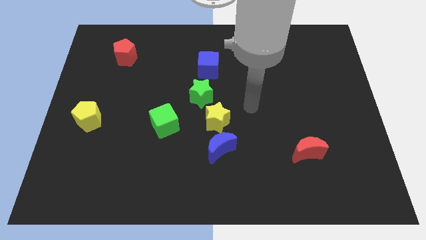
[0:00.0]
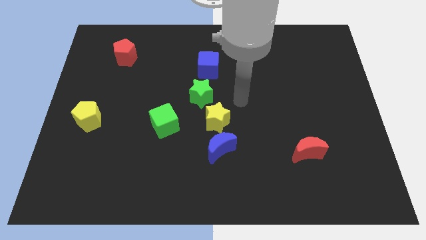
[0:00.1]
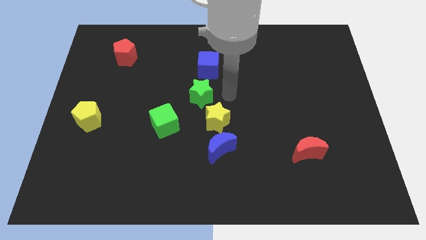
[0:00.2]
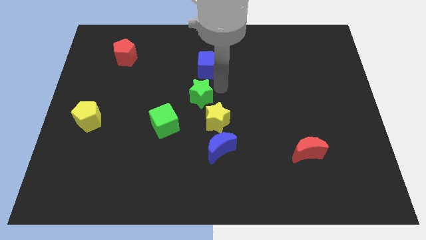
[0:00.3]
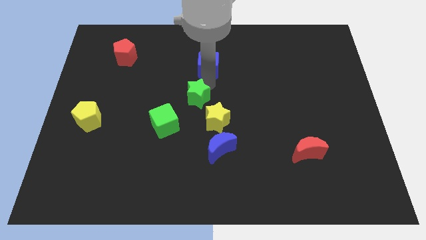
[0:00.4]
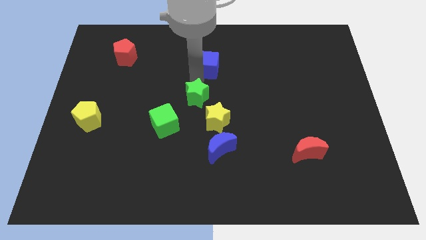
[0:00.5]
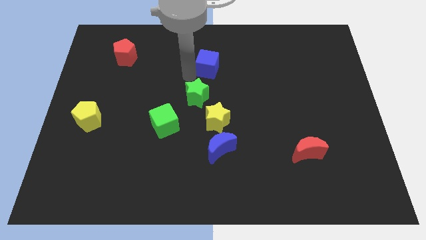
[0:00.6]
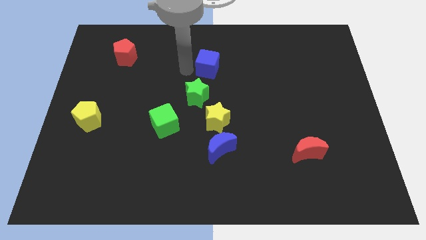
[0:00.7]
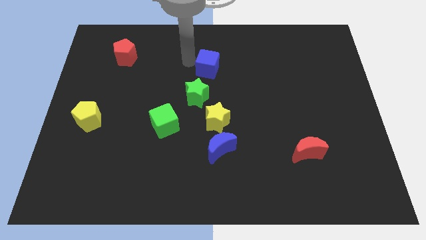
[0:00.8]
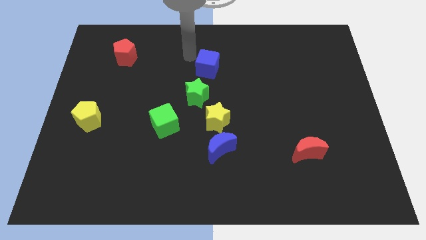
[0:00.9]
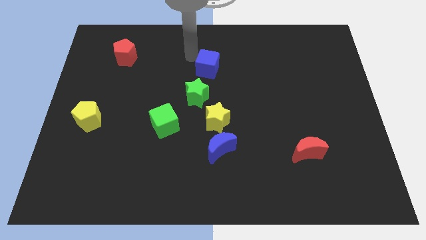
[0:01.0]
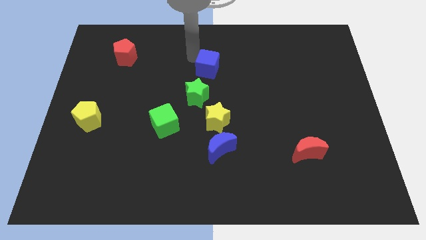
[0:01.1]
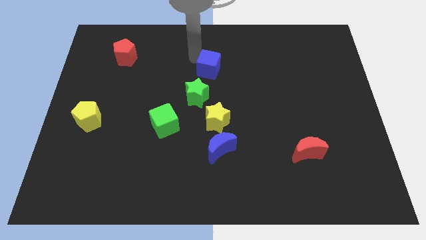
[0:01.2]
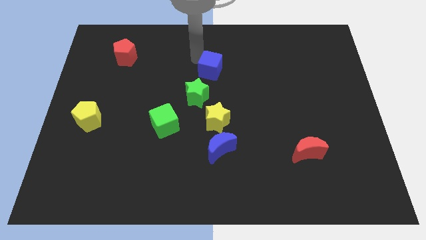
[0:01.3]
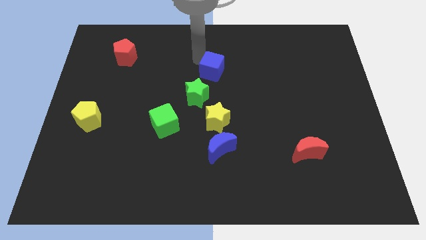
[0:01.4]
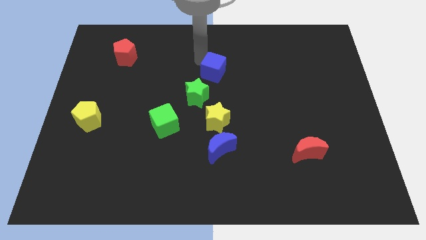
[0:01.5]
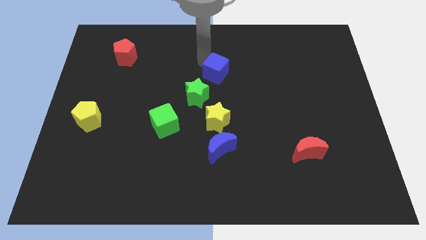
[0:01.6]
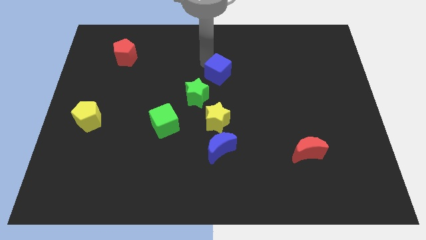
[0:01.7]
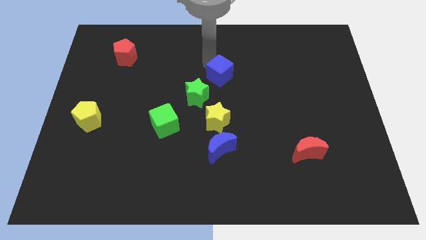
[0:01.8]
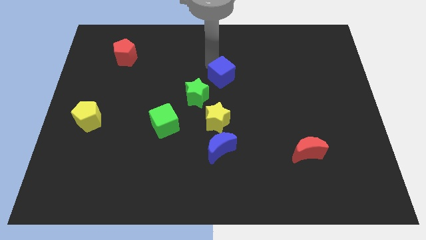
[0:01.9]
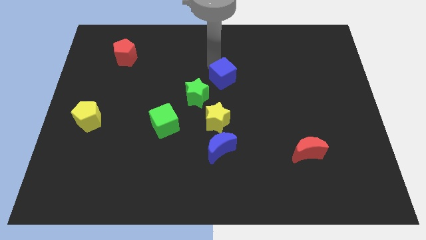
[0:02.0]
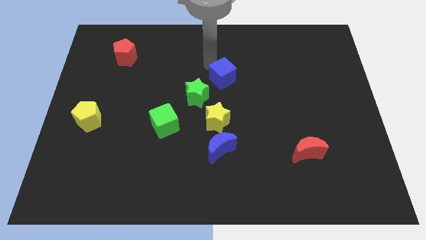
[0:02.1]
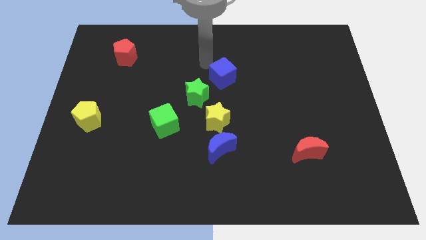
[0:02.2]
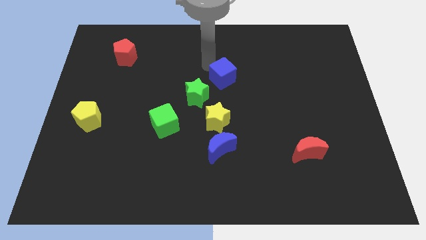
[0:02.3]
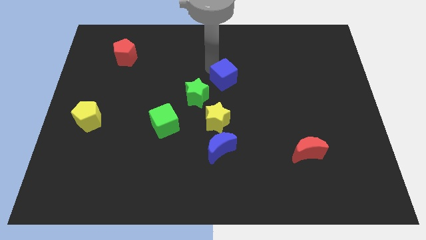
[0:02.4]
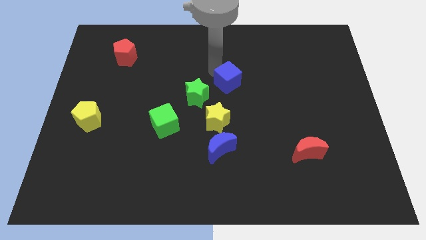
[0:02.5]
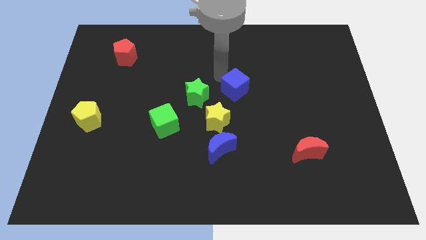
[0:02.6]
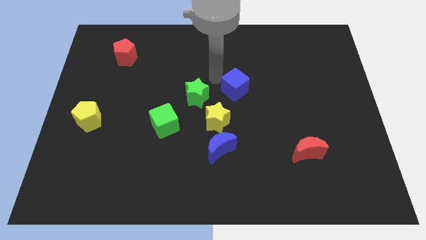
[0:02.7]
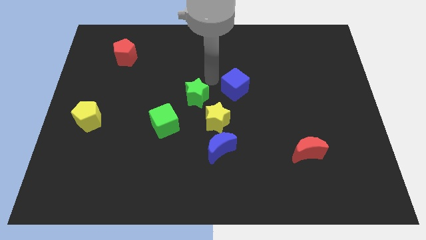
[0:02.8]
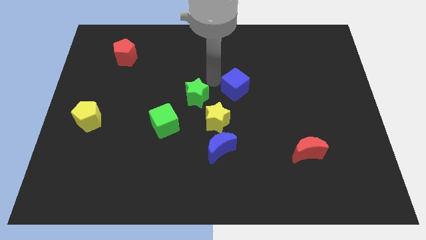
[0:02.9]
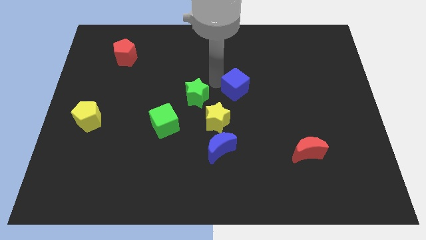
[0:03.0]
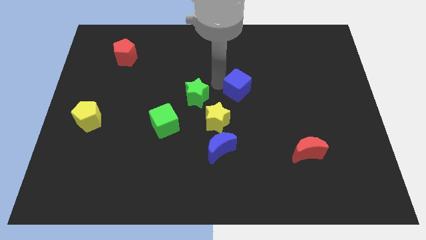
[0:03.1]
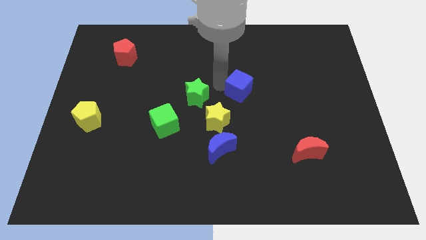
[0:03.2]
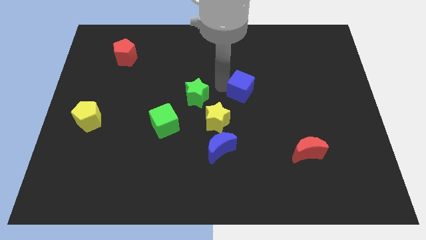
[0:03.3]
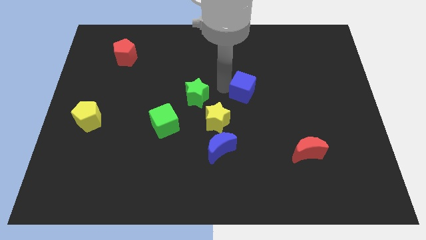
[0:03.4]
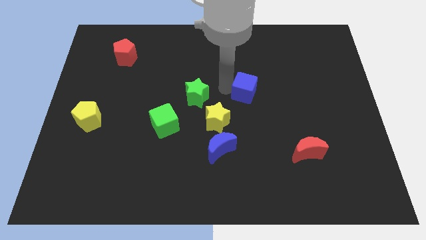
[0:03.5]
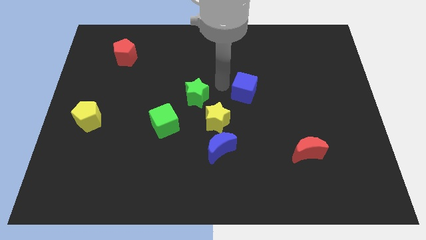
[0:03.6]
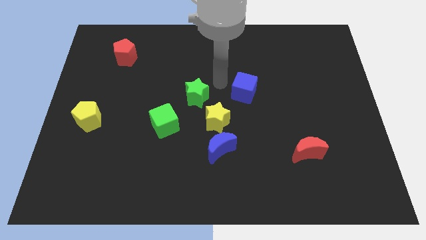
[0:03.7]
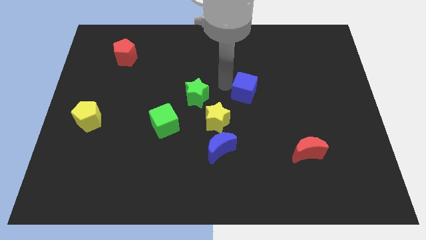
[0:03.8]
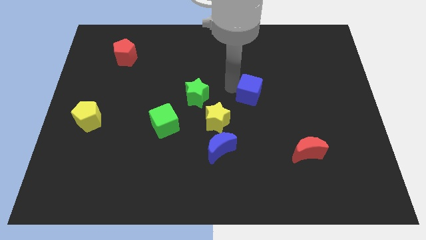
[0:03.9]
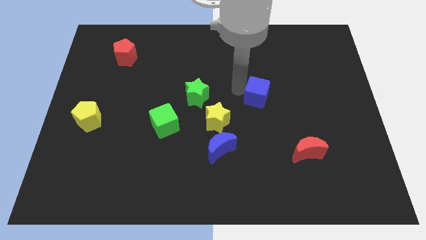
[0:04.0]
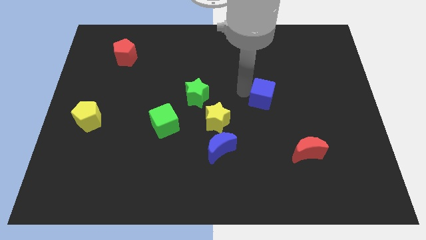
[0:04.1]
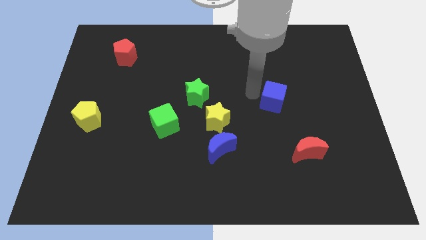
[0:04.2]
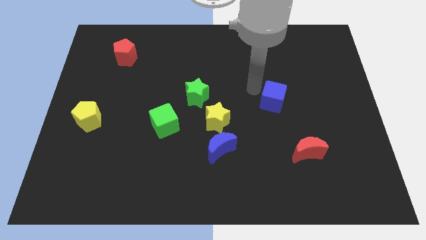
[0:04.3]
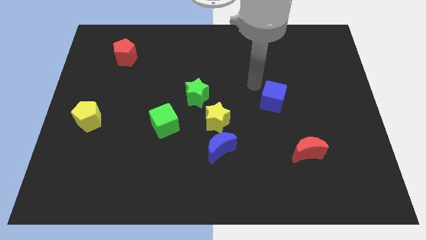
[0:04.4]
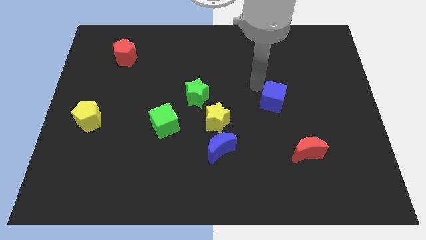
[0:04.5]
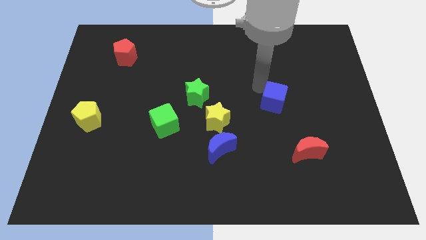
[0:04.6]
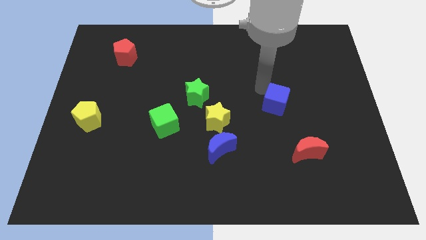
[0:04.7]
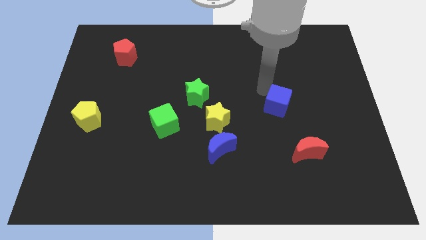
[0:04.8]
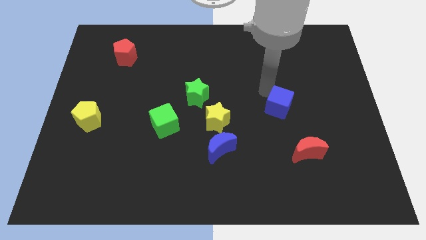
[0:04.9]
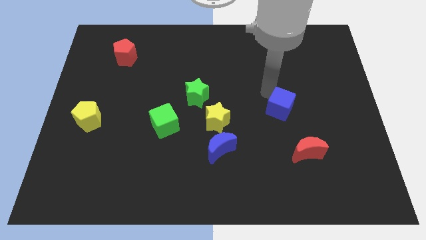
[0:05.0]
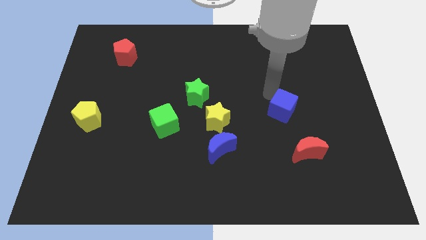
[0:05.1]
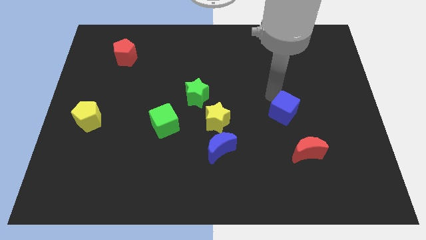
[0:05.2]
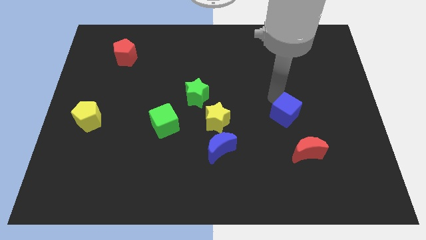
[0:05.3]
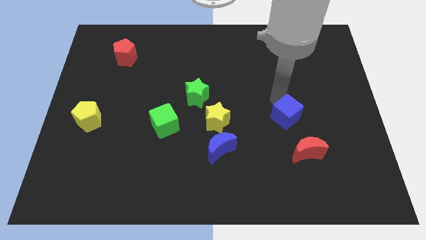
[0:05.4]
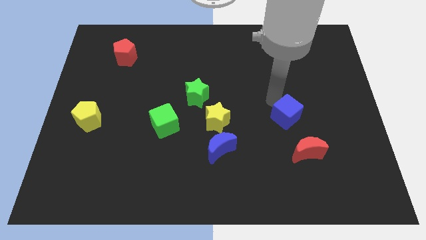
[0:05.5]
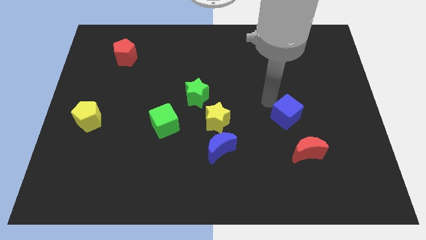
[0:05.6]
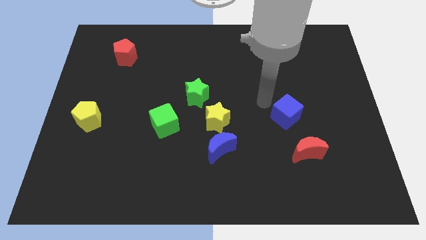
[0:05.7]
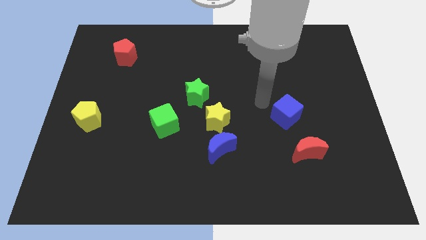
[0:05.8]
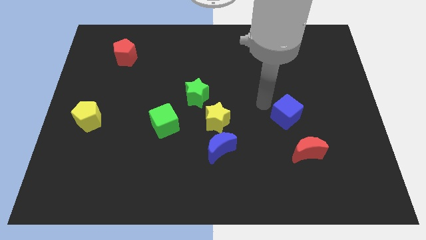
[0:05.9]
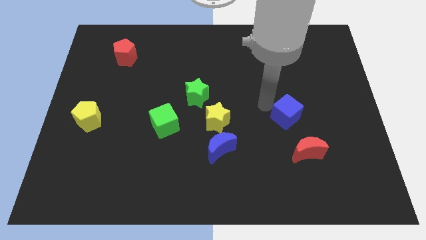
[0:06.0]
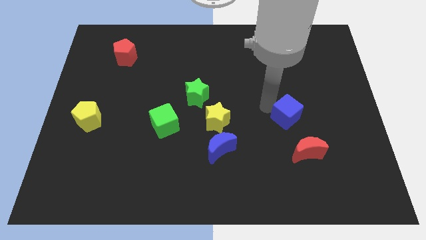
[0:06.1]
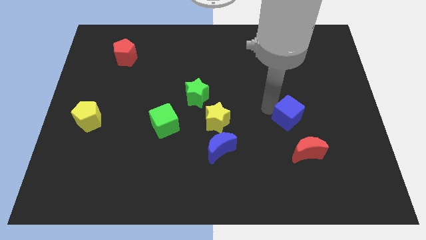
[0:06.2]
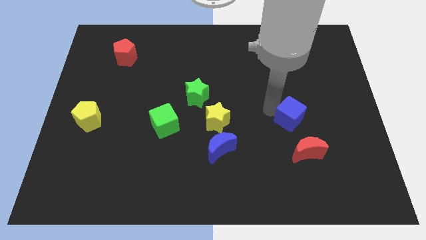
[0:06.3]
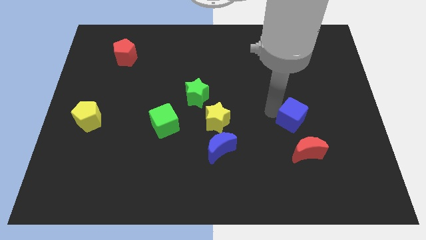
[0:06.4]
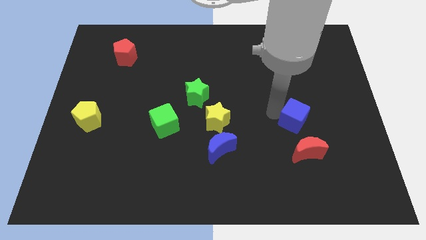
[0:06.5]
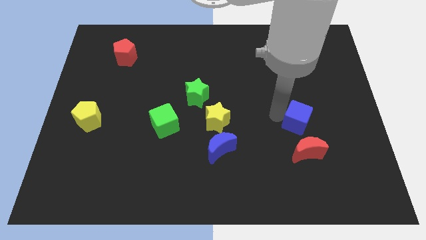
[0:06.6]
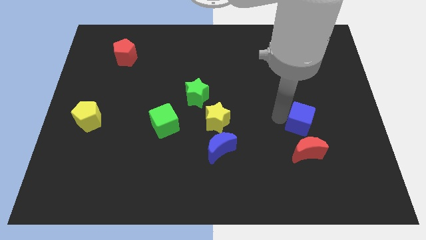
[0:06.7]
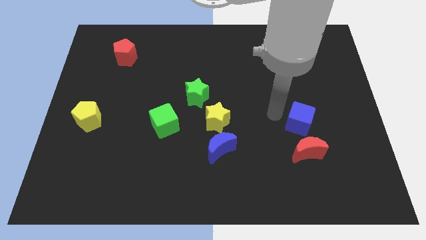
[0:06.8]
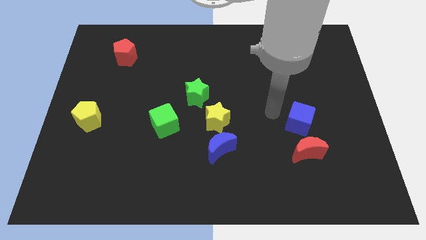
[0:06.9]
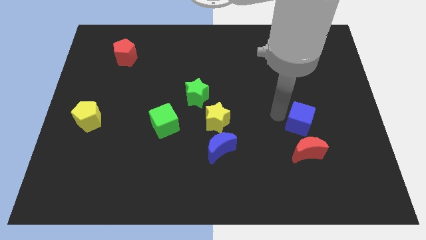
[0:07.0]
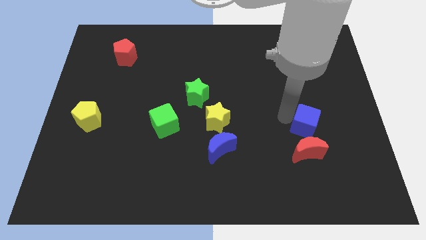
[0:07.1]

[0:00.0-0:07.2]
push the blue cube to the top right side of the red moon
